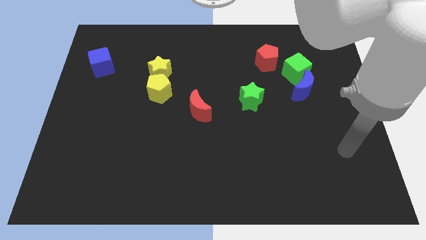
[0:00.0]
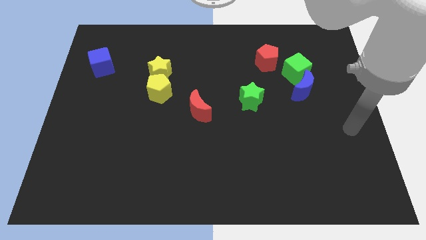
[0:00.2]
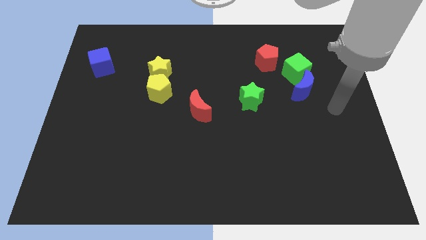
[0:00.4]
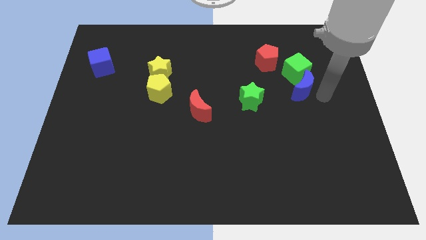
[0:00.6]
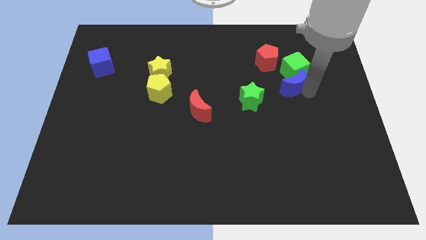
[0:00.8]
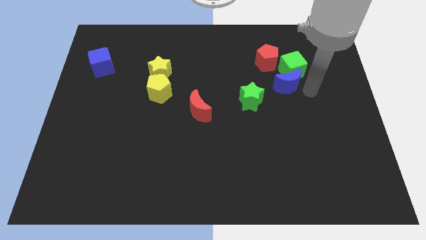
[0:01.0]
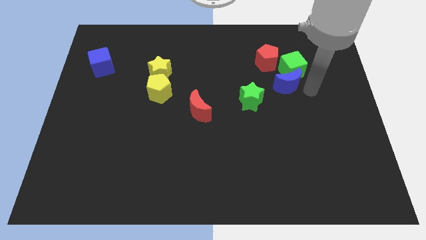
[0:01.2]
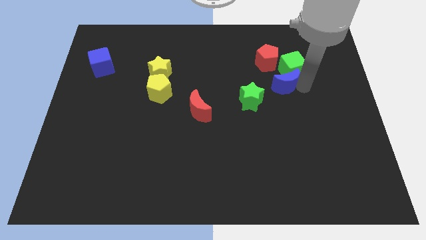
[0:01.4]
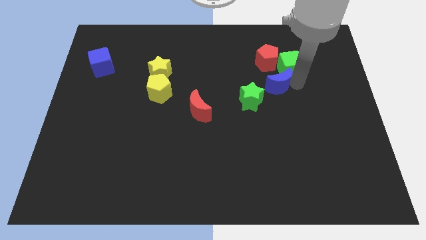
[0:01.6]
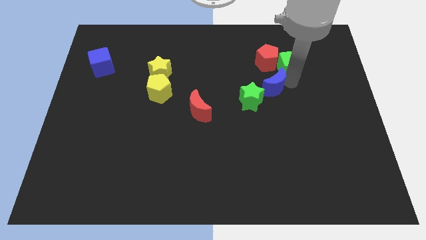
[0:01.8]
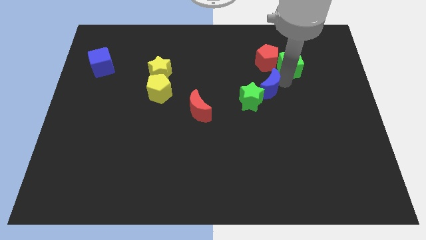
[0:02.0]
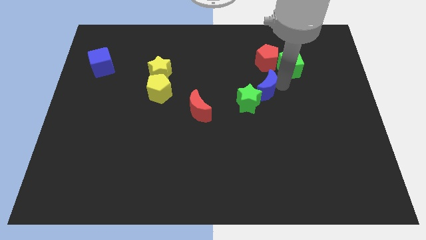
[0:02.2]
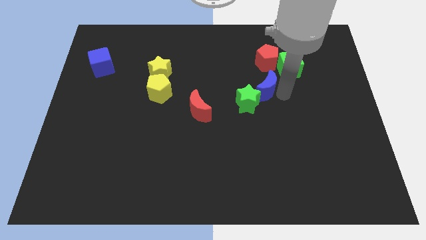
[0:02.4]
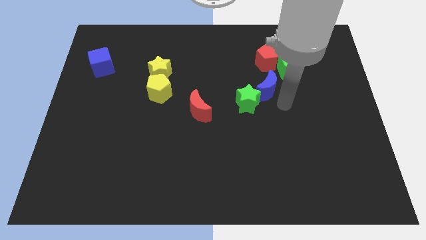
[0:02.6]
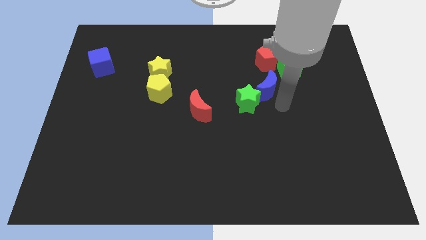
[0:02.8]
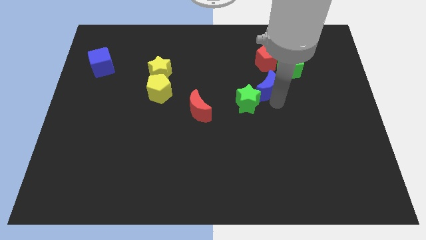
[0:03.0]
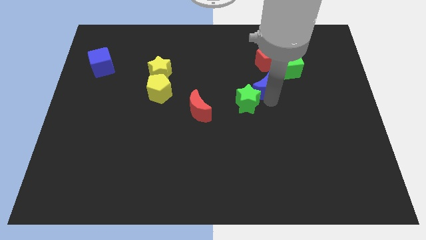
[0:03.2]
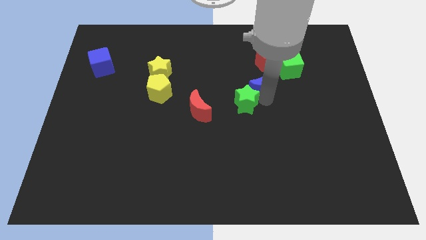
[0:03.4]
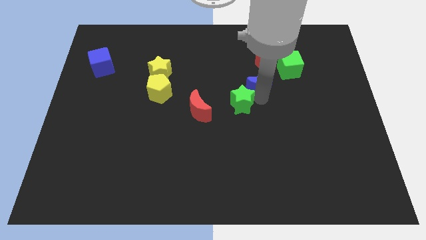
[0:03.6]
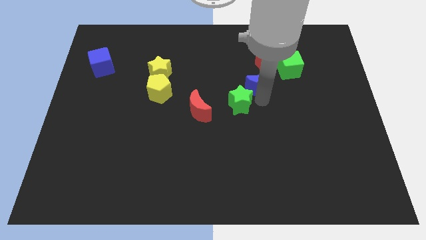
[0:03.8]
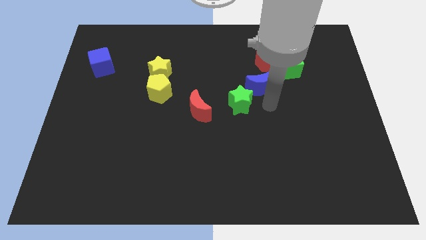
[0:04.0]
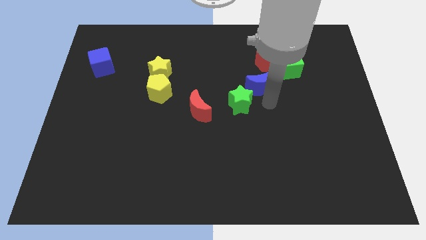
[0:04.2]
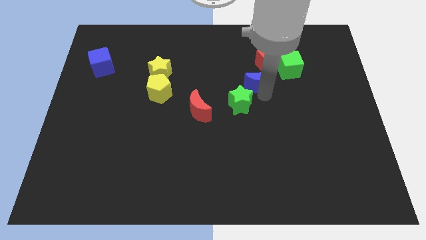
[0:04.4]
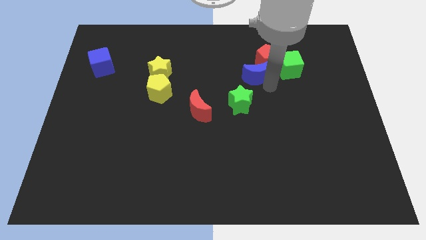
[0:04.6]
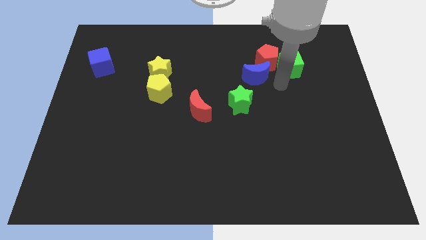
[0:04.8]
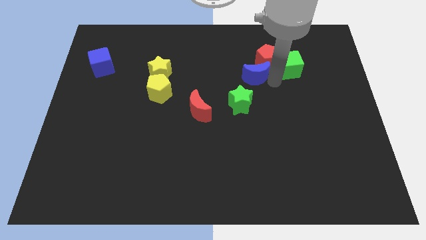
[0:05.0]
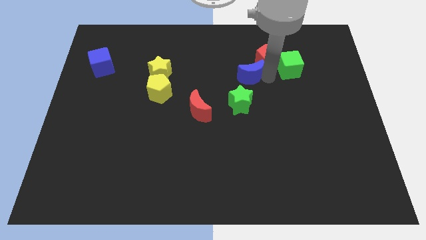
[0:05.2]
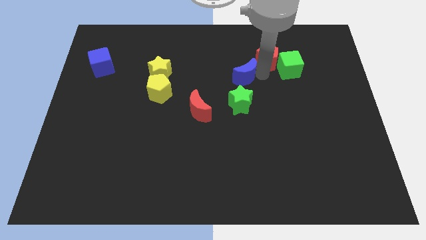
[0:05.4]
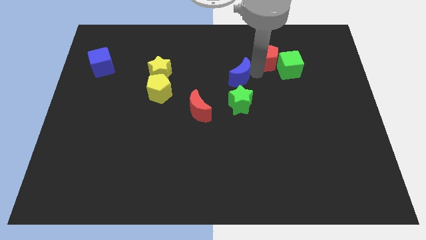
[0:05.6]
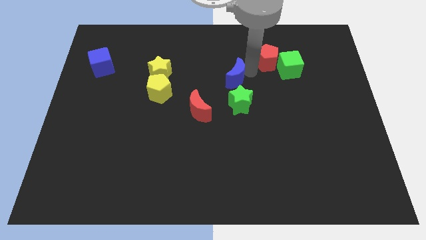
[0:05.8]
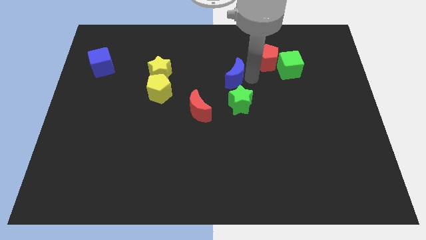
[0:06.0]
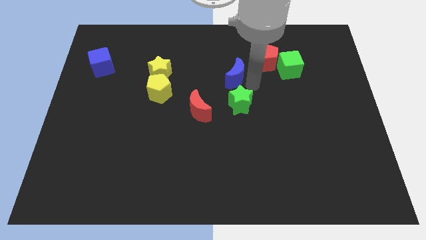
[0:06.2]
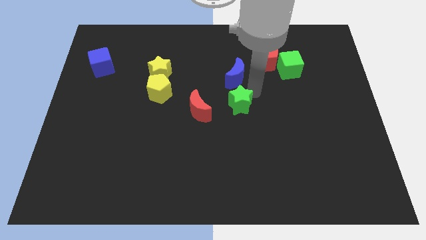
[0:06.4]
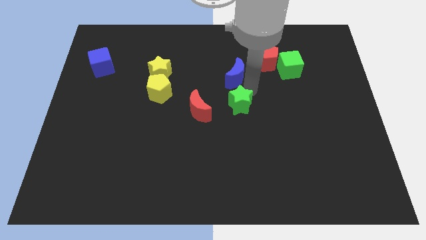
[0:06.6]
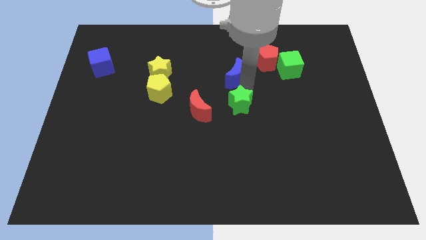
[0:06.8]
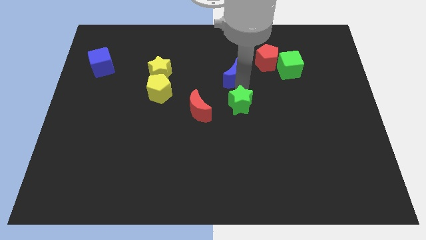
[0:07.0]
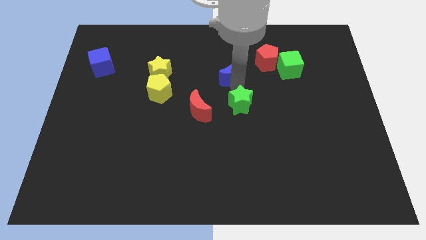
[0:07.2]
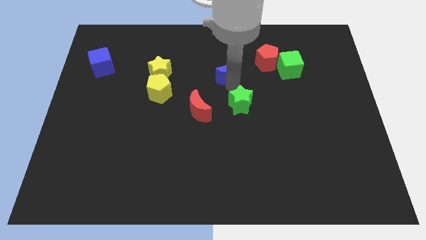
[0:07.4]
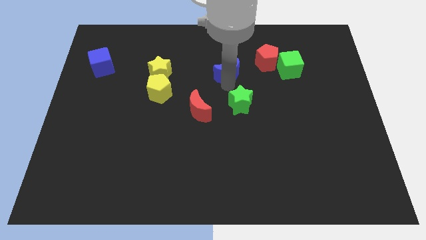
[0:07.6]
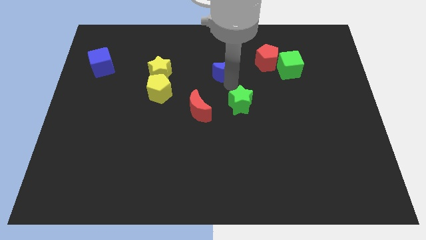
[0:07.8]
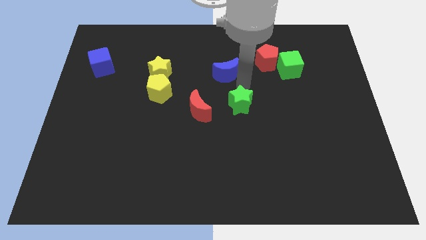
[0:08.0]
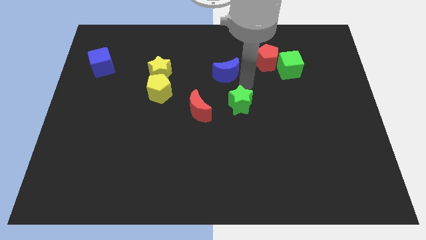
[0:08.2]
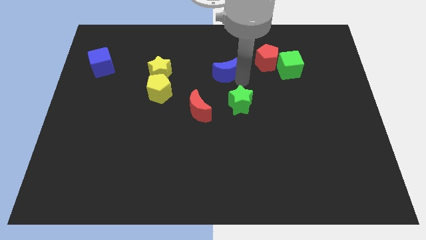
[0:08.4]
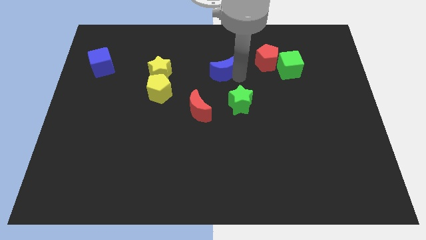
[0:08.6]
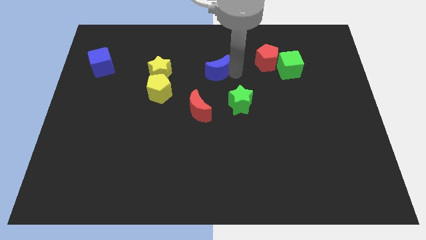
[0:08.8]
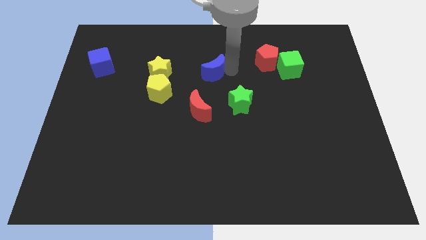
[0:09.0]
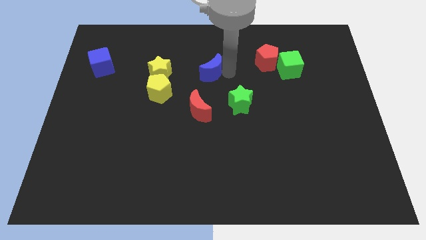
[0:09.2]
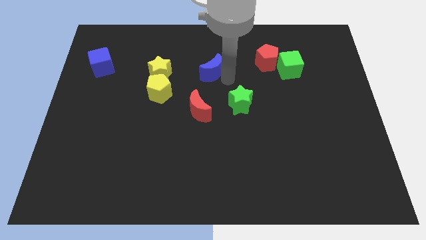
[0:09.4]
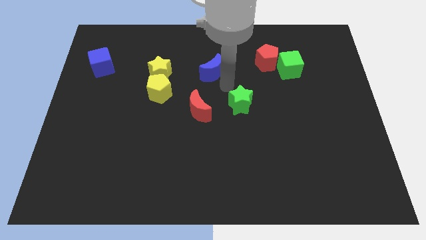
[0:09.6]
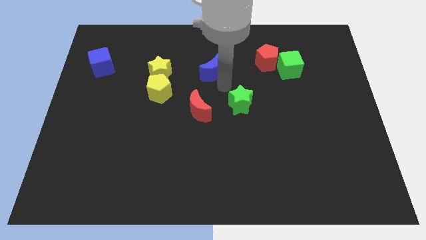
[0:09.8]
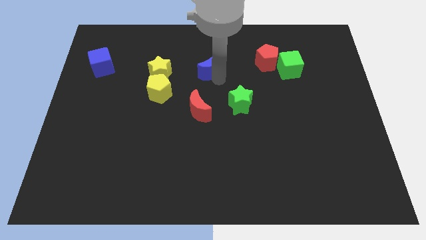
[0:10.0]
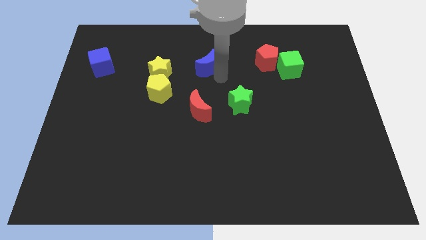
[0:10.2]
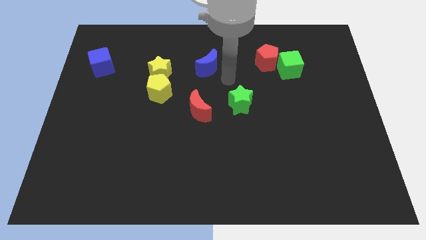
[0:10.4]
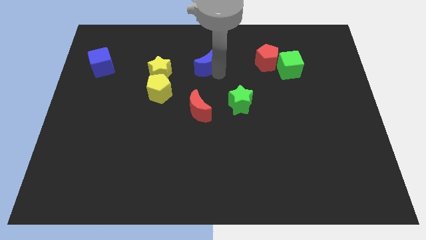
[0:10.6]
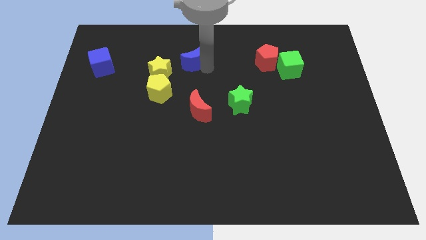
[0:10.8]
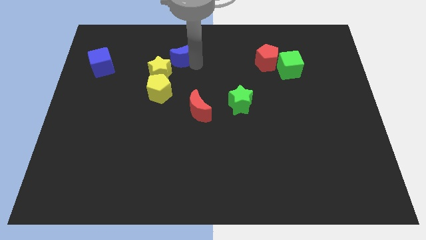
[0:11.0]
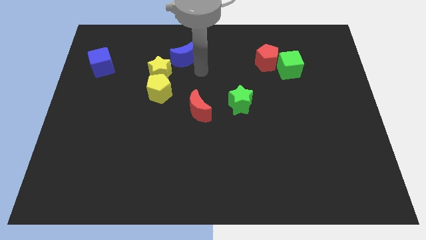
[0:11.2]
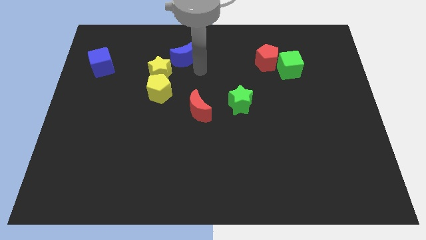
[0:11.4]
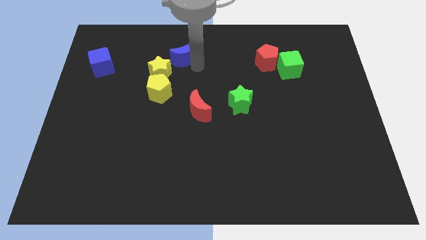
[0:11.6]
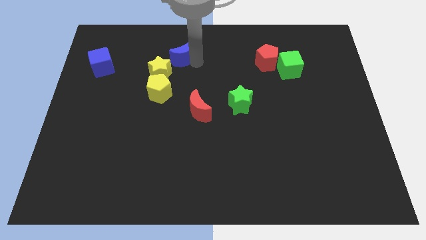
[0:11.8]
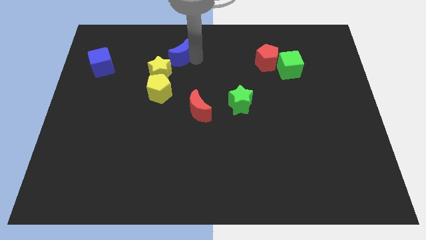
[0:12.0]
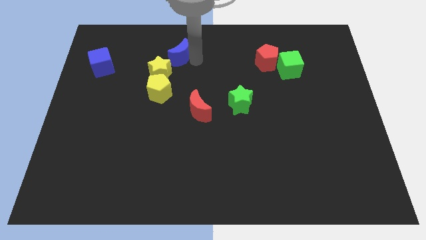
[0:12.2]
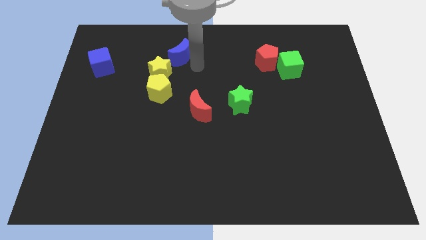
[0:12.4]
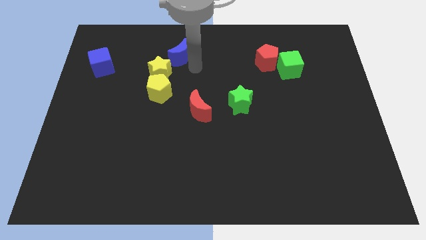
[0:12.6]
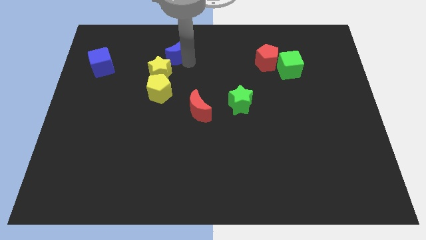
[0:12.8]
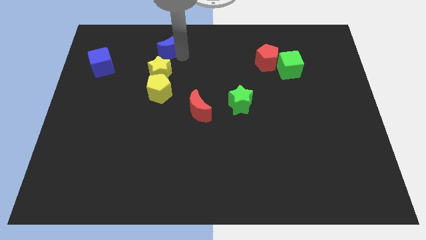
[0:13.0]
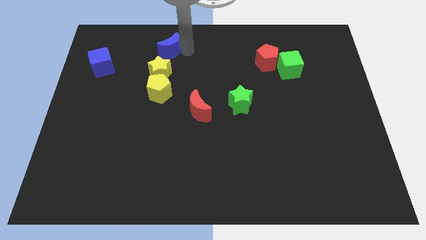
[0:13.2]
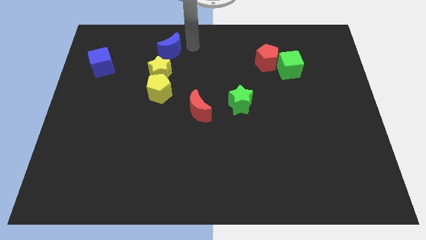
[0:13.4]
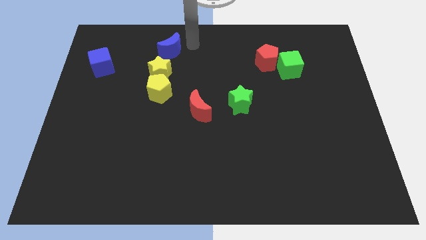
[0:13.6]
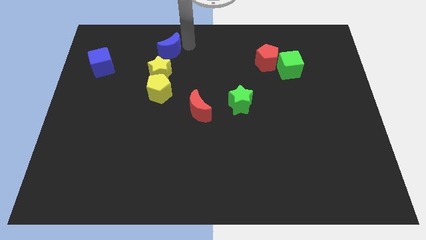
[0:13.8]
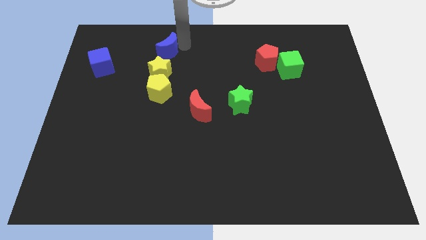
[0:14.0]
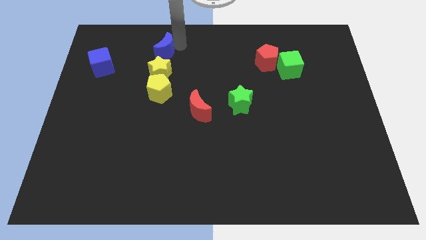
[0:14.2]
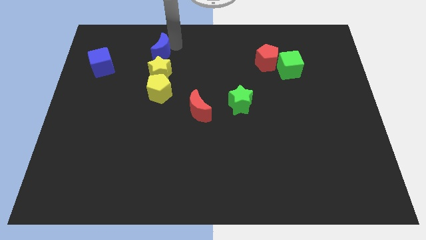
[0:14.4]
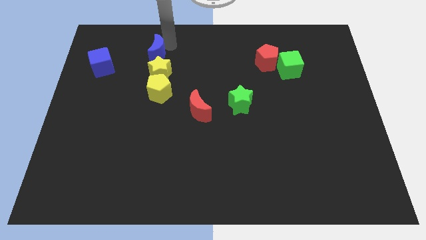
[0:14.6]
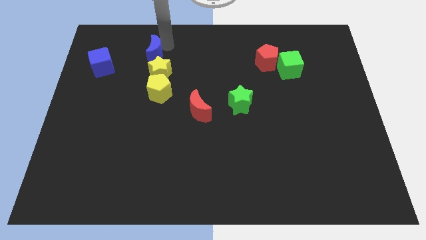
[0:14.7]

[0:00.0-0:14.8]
put the blue moon just right of the blue cube
